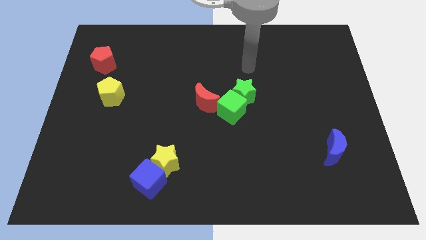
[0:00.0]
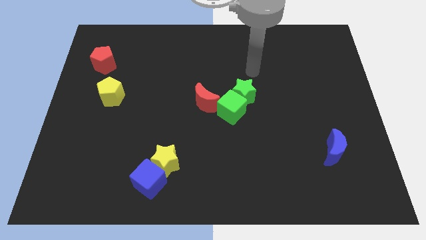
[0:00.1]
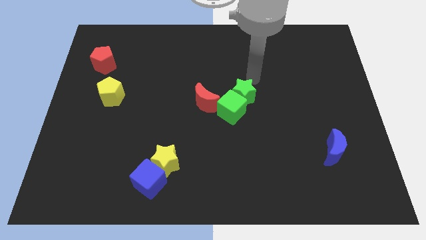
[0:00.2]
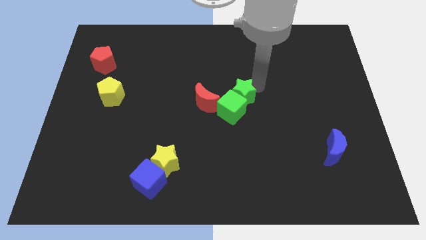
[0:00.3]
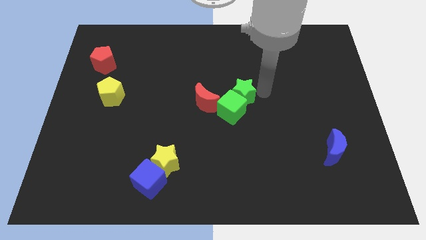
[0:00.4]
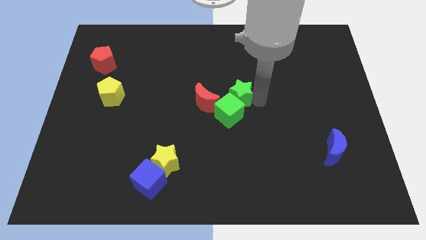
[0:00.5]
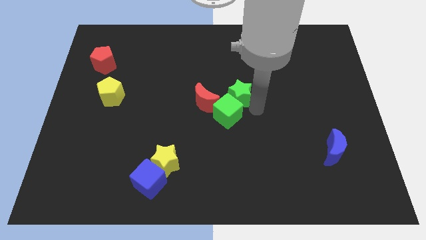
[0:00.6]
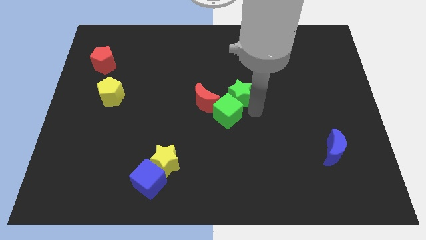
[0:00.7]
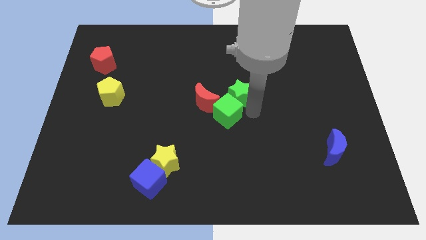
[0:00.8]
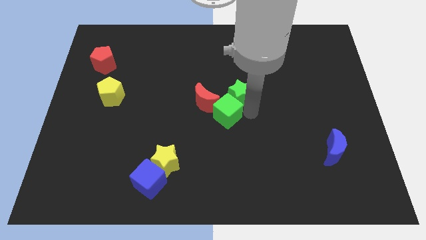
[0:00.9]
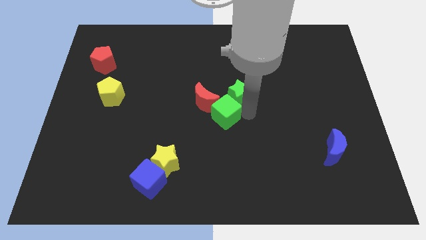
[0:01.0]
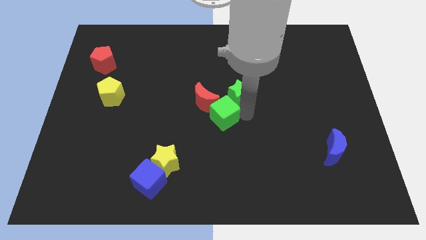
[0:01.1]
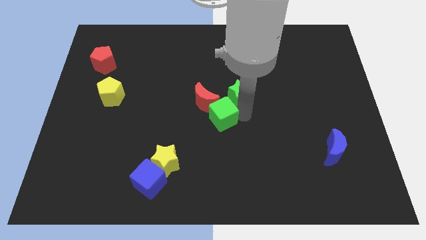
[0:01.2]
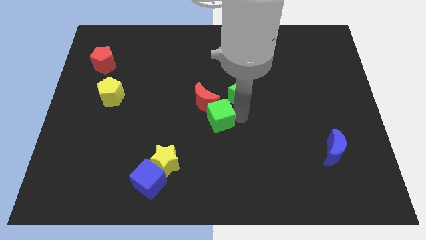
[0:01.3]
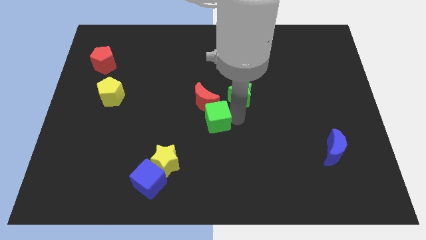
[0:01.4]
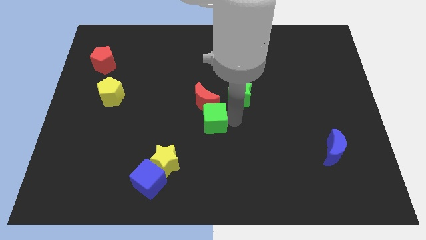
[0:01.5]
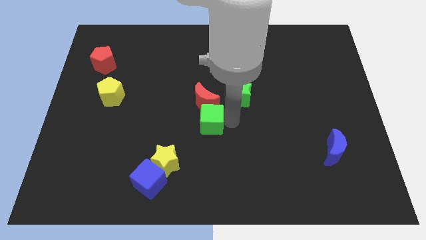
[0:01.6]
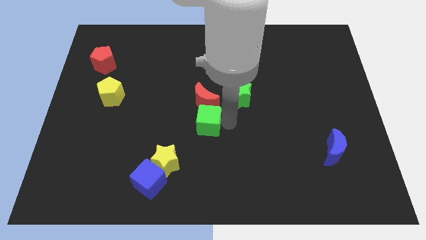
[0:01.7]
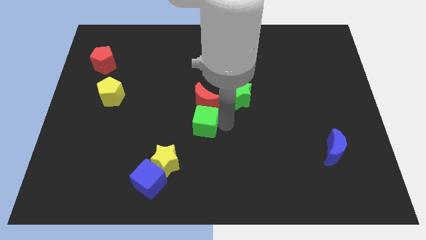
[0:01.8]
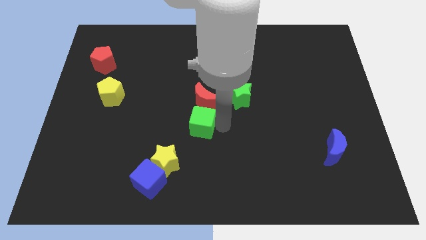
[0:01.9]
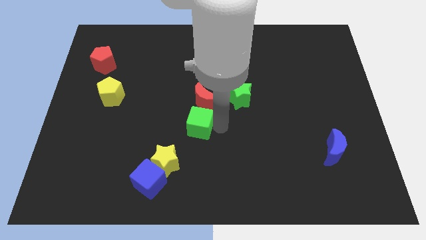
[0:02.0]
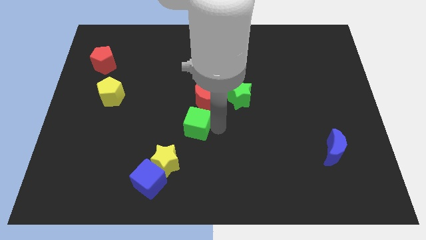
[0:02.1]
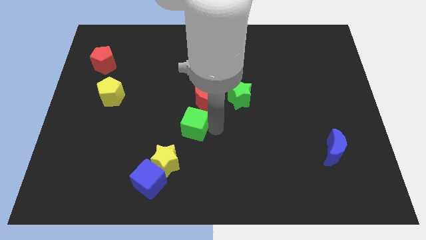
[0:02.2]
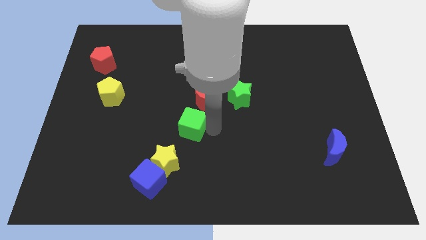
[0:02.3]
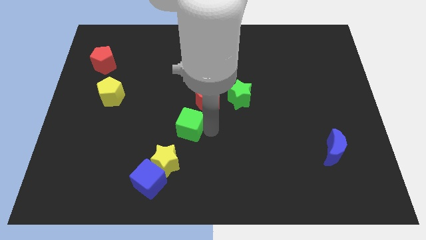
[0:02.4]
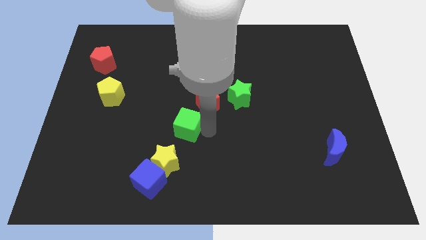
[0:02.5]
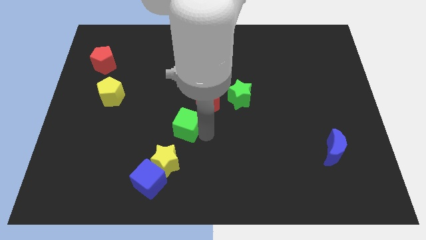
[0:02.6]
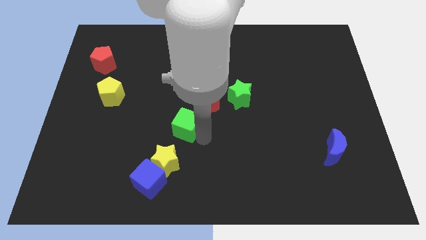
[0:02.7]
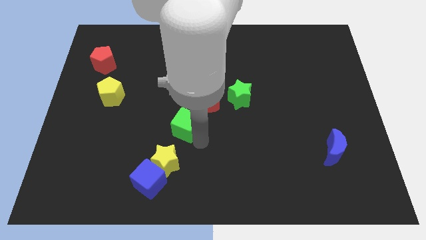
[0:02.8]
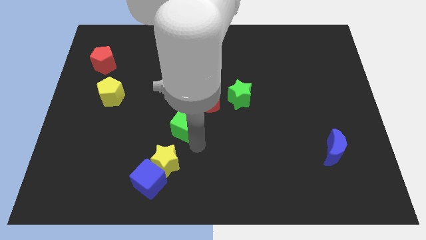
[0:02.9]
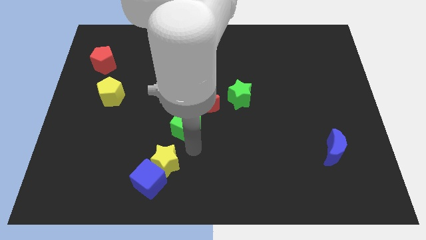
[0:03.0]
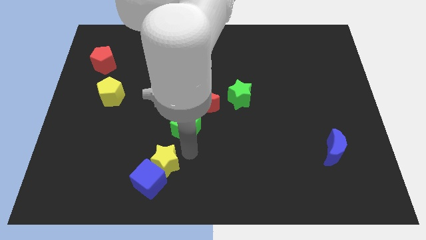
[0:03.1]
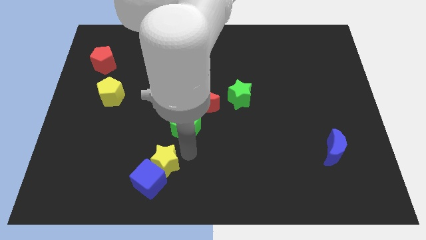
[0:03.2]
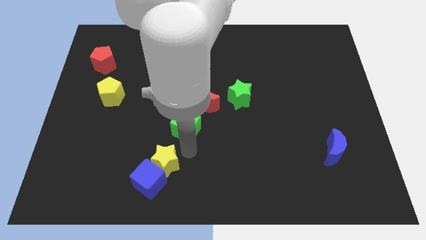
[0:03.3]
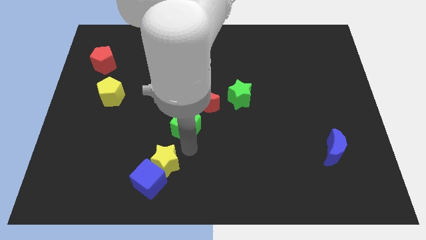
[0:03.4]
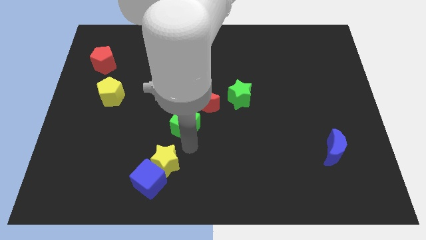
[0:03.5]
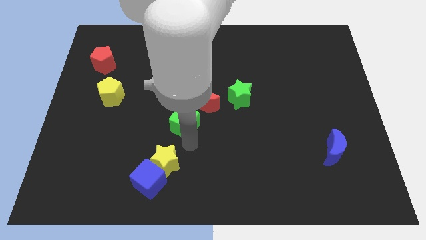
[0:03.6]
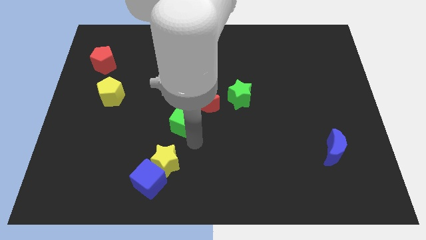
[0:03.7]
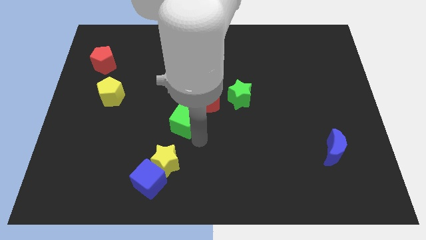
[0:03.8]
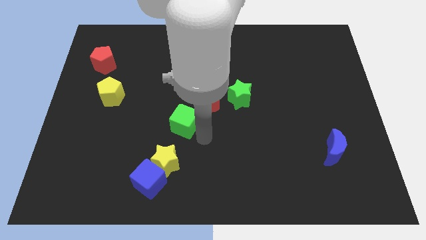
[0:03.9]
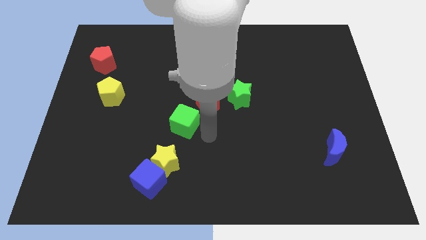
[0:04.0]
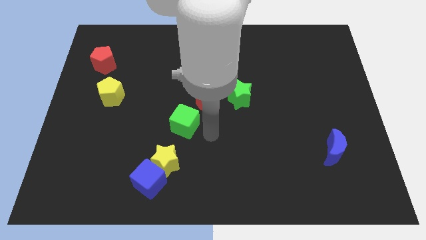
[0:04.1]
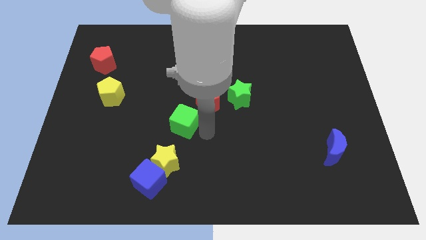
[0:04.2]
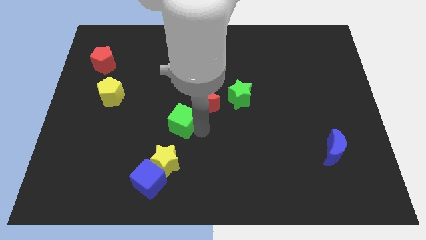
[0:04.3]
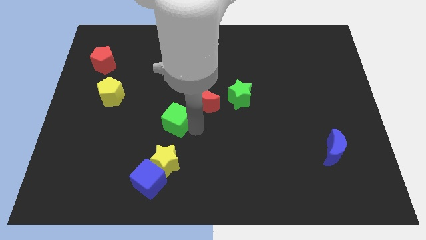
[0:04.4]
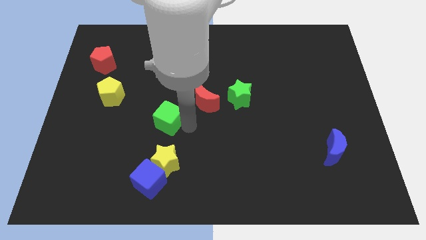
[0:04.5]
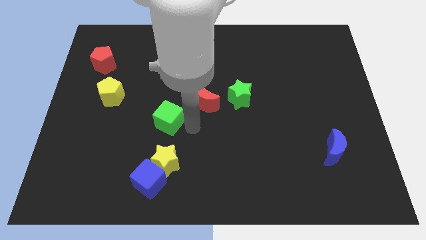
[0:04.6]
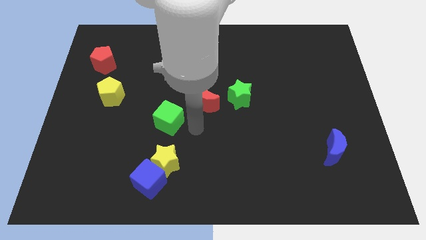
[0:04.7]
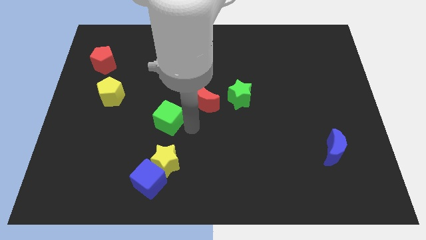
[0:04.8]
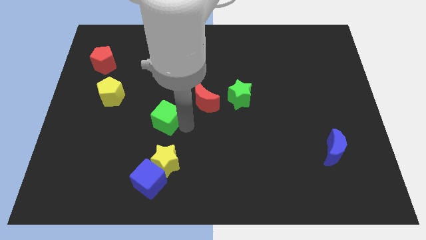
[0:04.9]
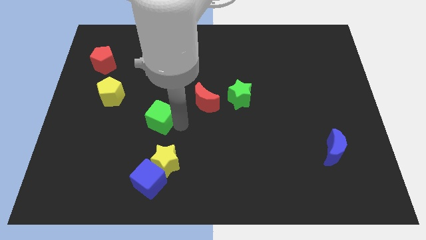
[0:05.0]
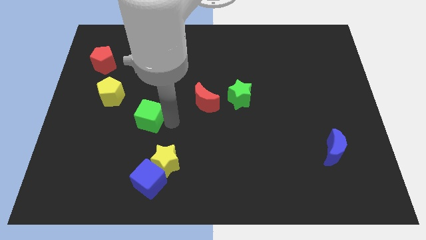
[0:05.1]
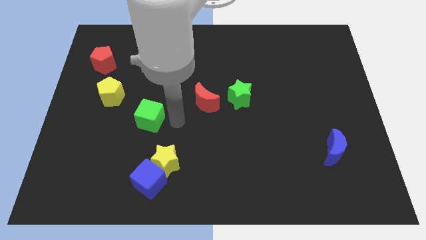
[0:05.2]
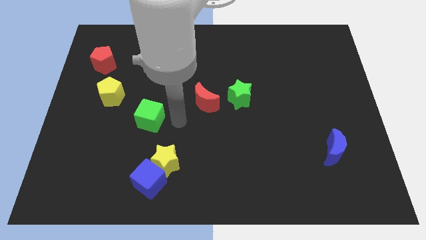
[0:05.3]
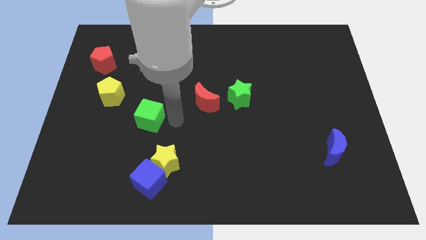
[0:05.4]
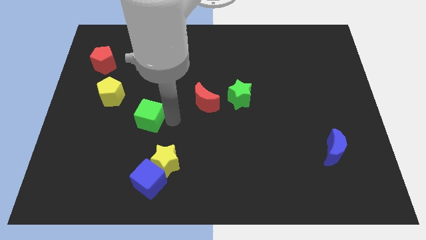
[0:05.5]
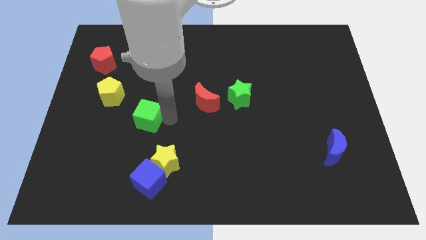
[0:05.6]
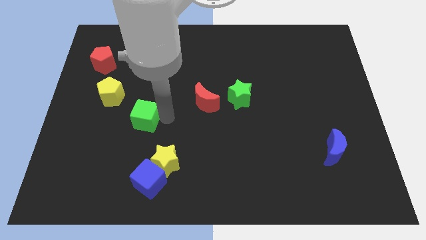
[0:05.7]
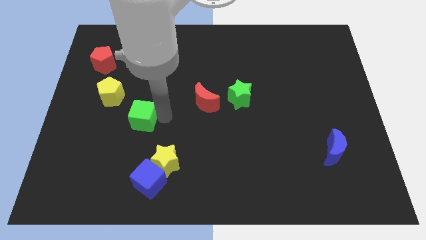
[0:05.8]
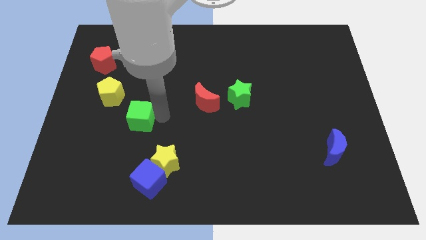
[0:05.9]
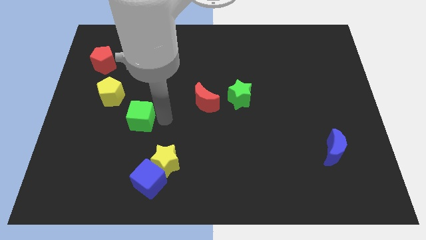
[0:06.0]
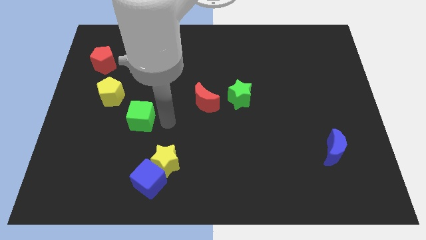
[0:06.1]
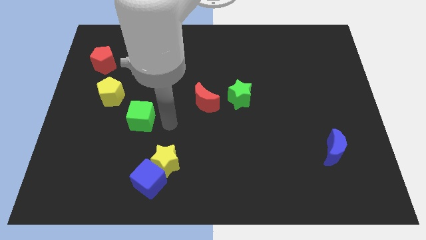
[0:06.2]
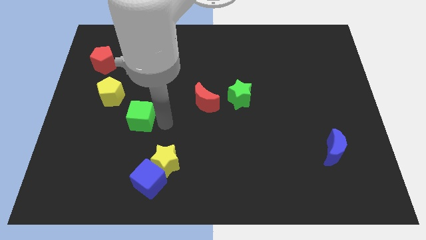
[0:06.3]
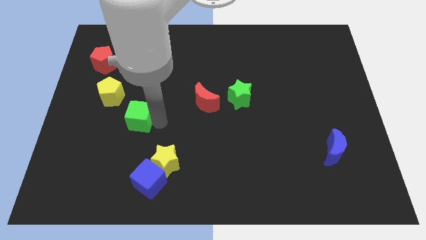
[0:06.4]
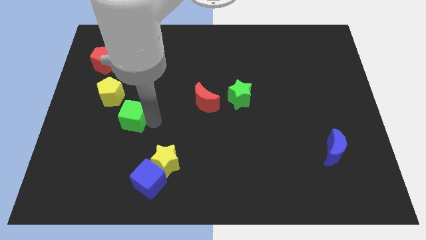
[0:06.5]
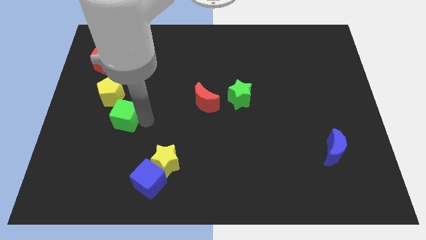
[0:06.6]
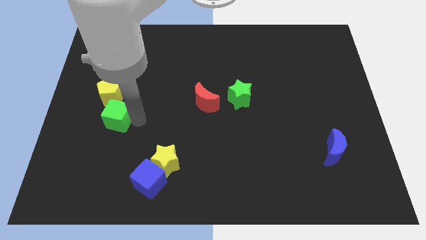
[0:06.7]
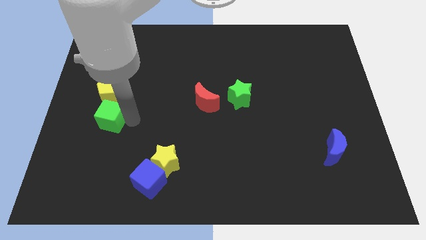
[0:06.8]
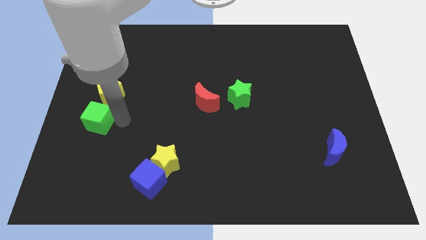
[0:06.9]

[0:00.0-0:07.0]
move the green cube to the left side
